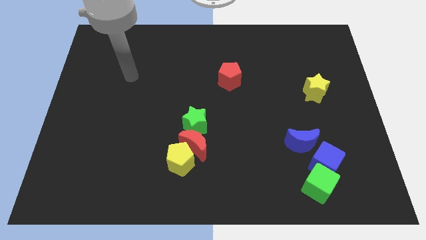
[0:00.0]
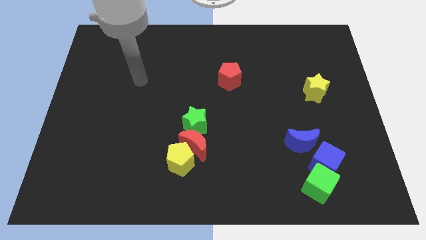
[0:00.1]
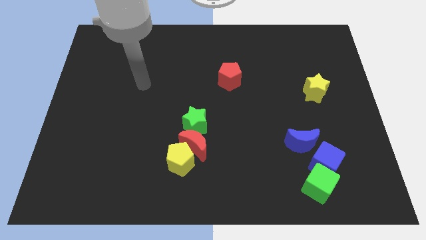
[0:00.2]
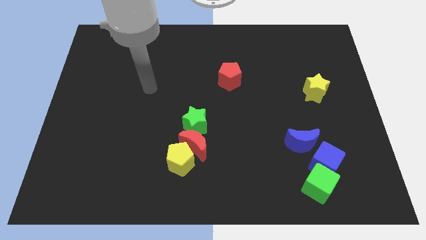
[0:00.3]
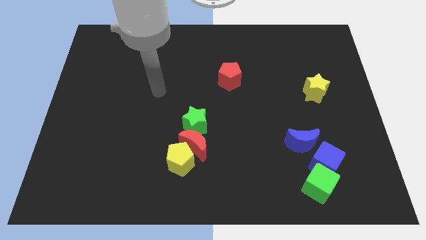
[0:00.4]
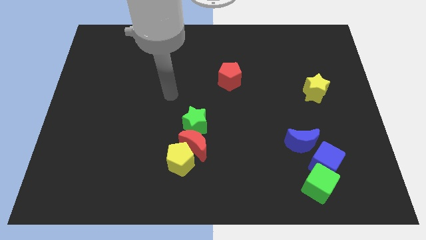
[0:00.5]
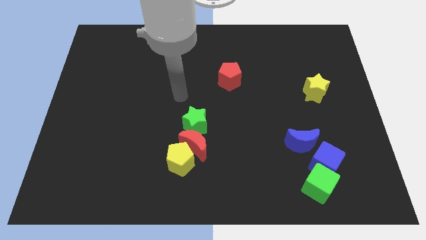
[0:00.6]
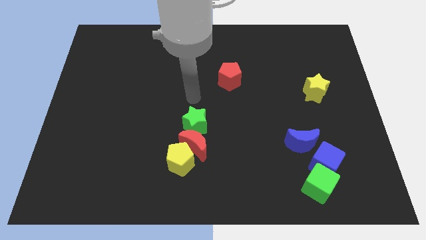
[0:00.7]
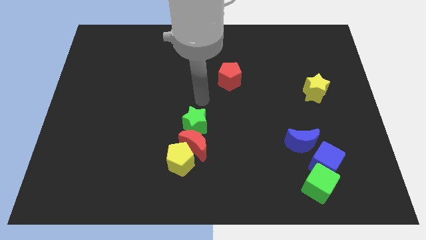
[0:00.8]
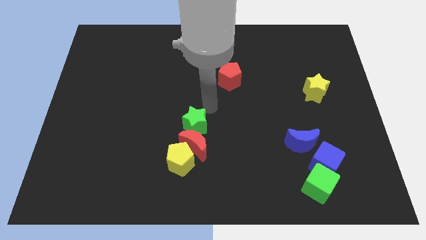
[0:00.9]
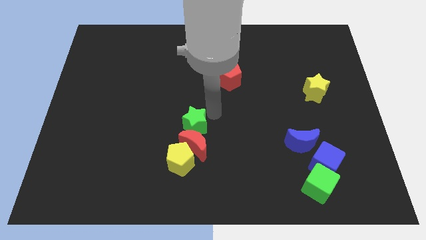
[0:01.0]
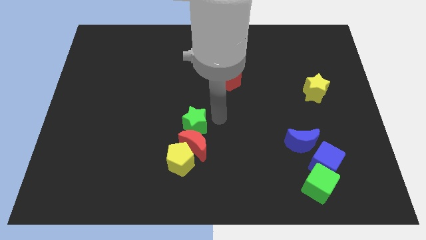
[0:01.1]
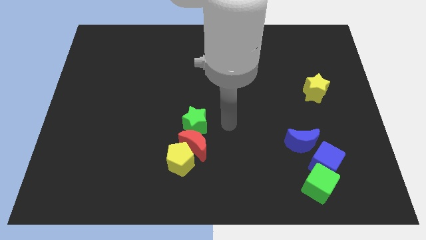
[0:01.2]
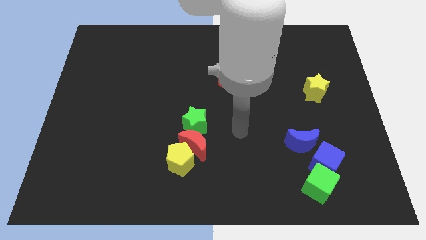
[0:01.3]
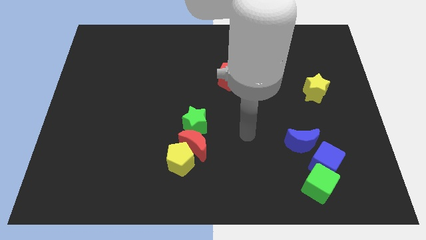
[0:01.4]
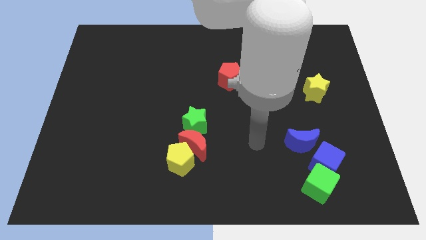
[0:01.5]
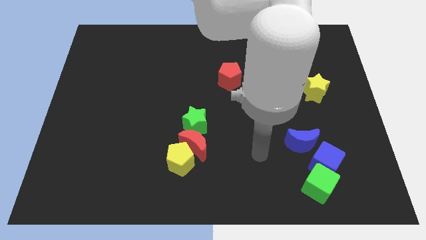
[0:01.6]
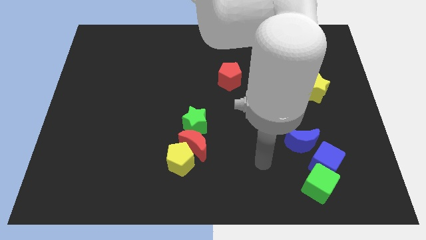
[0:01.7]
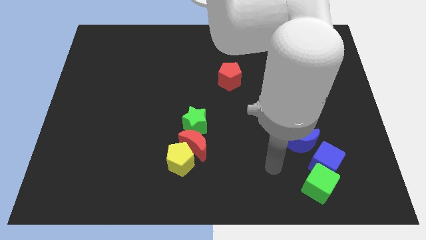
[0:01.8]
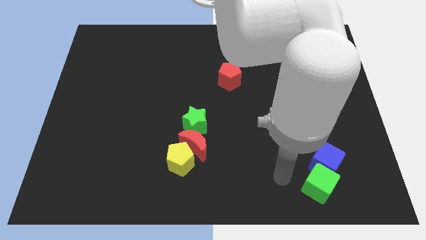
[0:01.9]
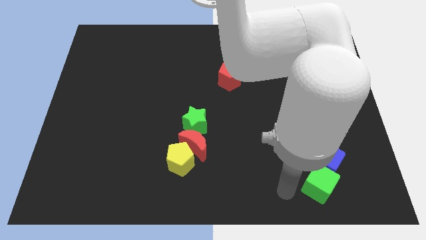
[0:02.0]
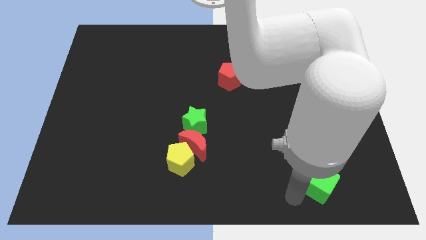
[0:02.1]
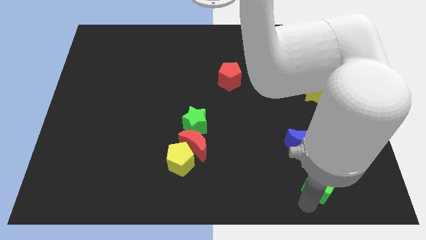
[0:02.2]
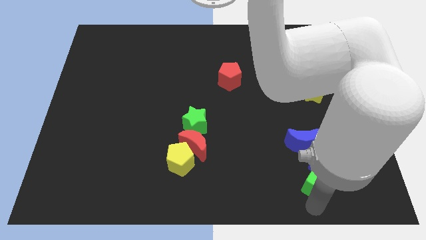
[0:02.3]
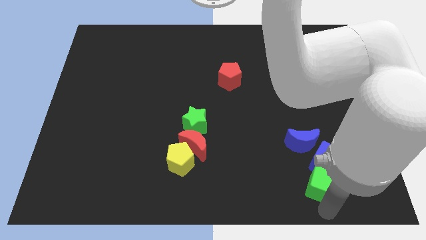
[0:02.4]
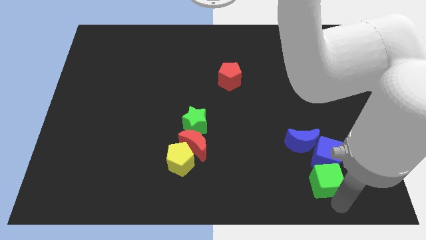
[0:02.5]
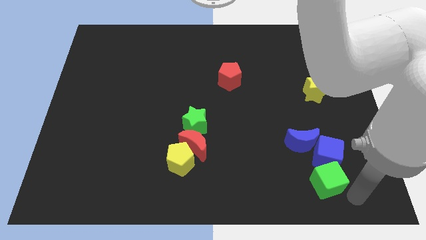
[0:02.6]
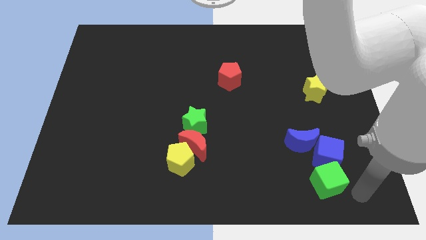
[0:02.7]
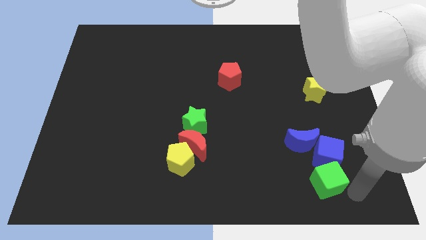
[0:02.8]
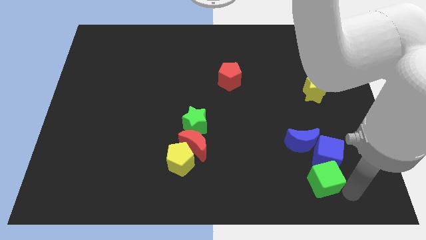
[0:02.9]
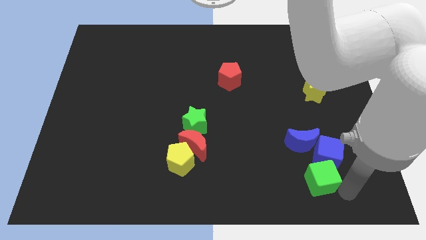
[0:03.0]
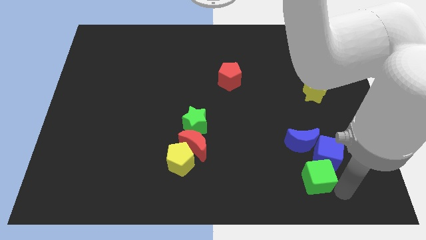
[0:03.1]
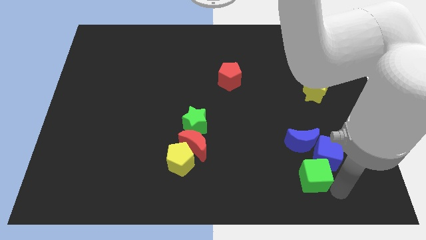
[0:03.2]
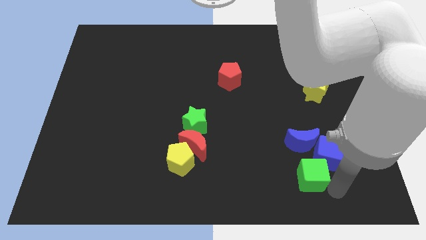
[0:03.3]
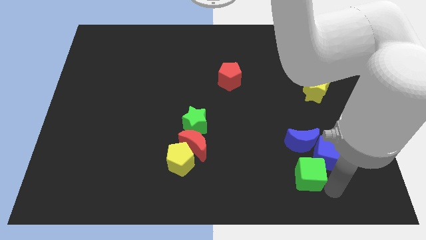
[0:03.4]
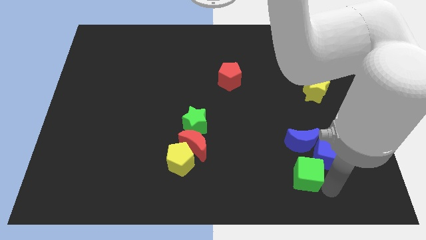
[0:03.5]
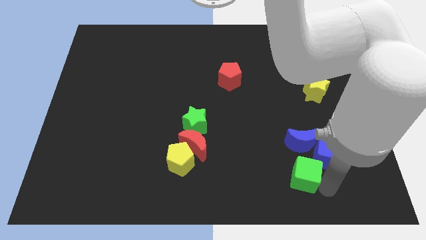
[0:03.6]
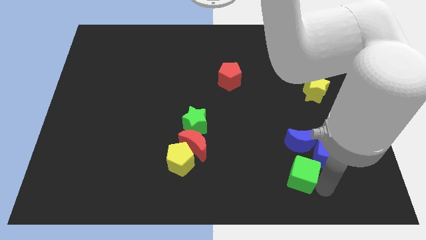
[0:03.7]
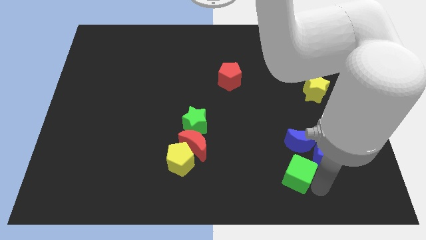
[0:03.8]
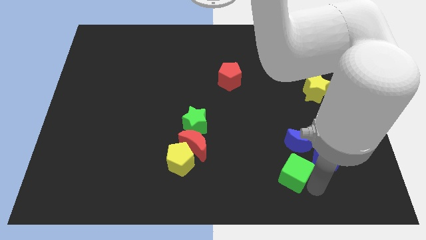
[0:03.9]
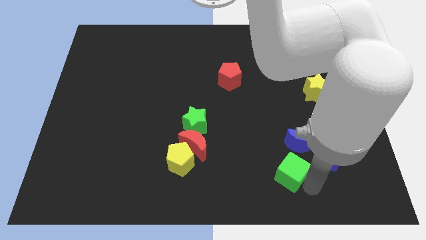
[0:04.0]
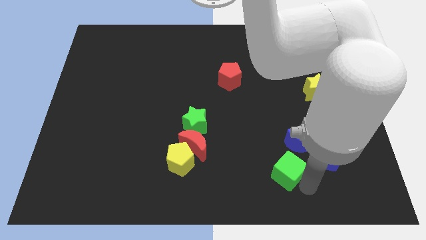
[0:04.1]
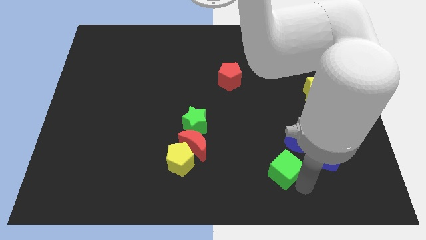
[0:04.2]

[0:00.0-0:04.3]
slightly slide the green cube upwards and then left

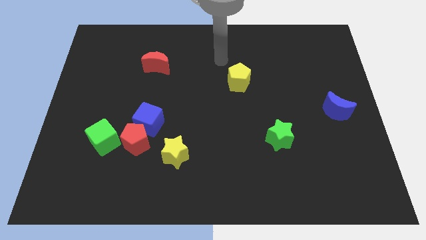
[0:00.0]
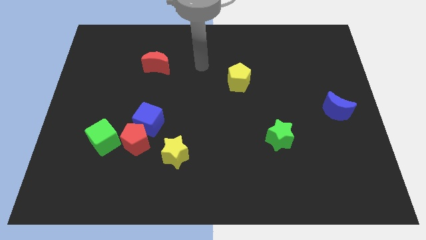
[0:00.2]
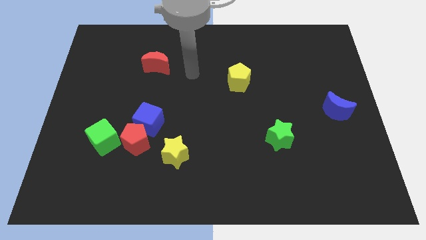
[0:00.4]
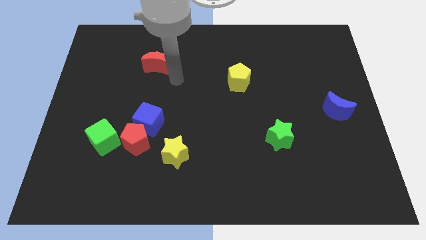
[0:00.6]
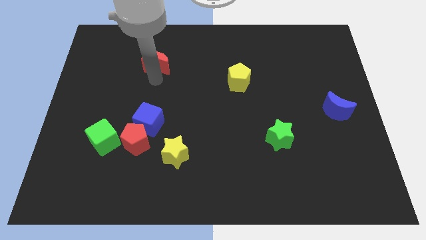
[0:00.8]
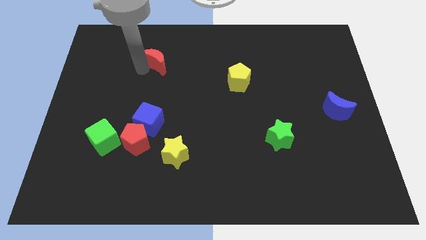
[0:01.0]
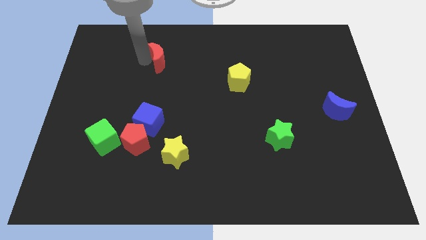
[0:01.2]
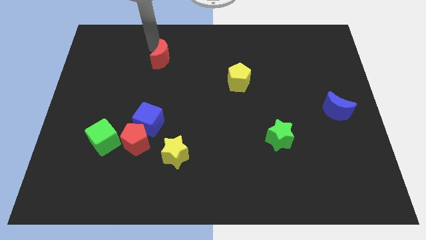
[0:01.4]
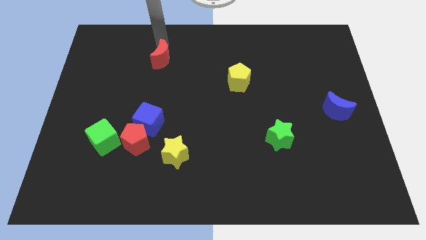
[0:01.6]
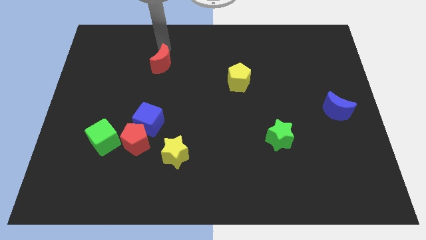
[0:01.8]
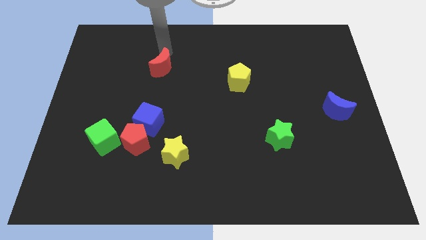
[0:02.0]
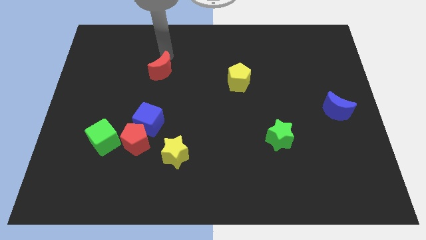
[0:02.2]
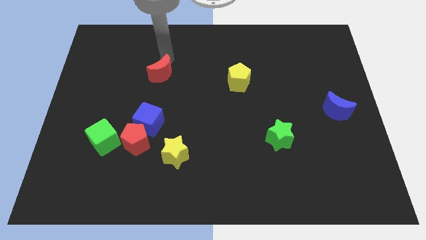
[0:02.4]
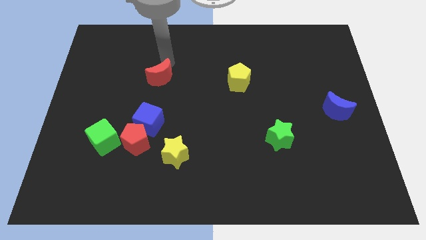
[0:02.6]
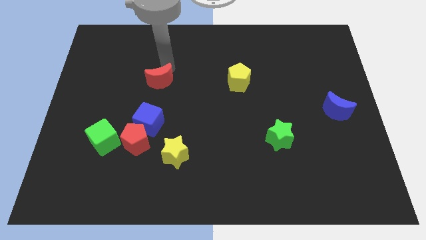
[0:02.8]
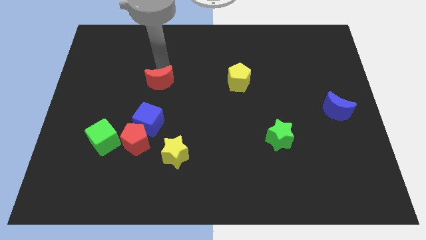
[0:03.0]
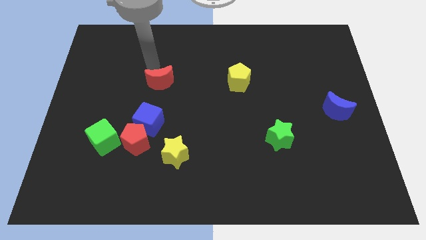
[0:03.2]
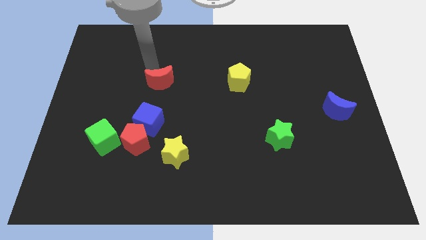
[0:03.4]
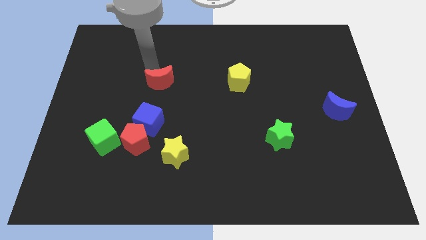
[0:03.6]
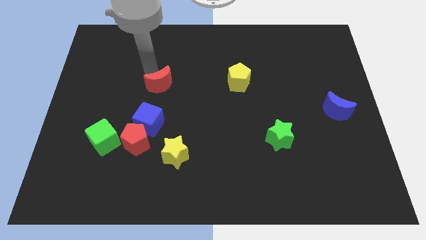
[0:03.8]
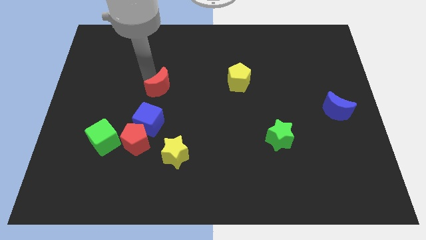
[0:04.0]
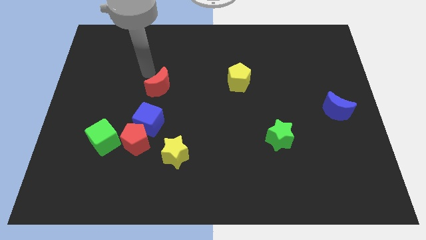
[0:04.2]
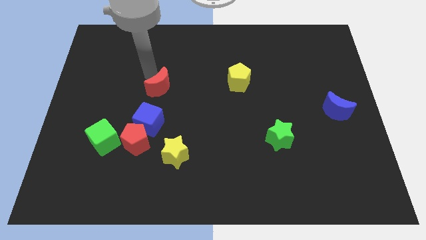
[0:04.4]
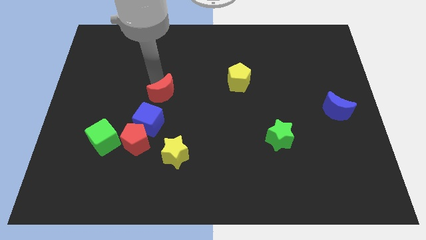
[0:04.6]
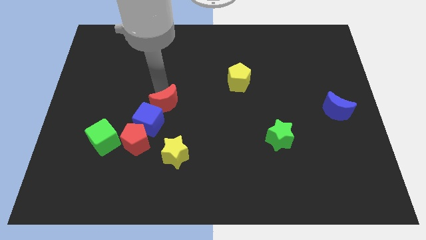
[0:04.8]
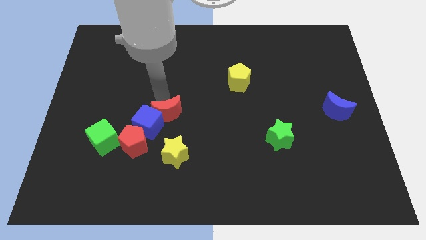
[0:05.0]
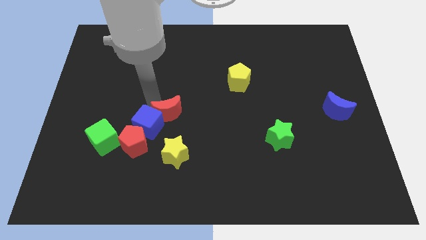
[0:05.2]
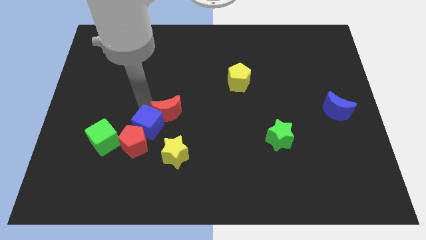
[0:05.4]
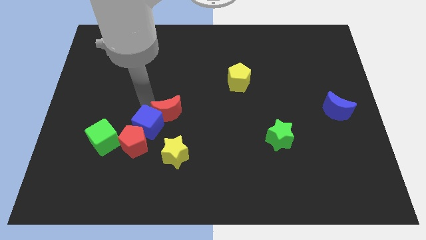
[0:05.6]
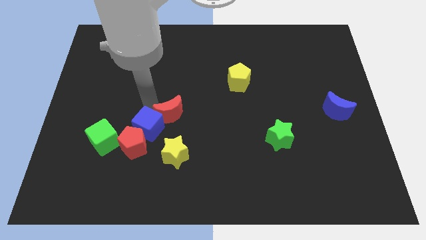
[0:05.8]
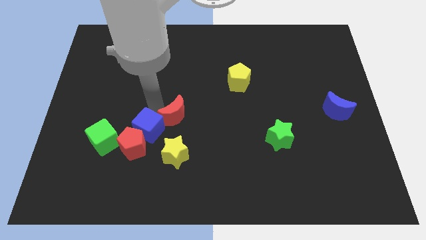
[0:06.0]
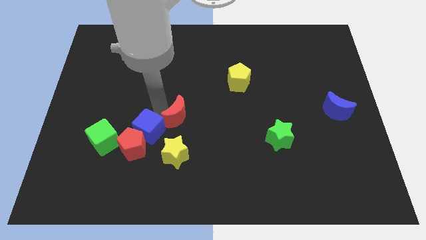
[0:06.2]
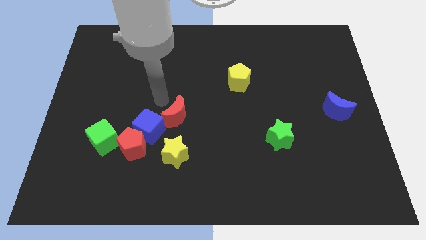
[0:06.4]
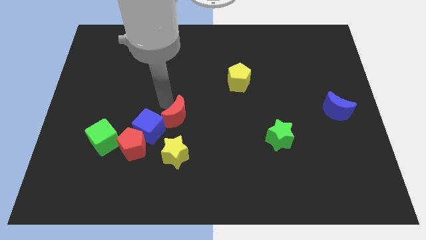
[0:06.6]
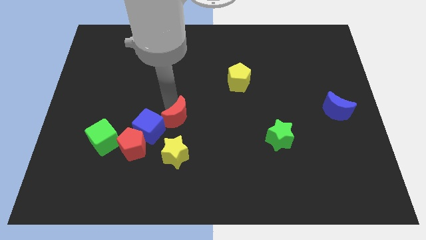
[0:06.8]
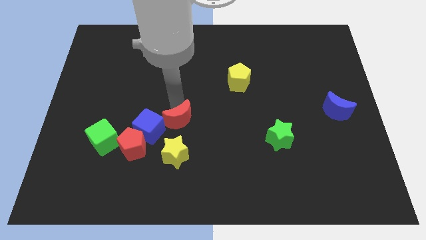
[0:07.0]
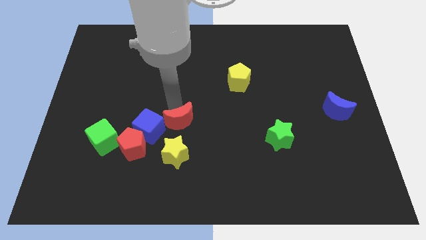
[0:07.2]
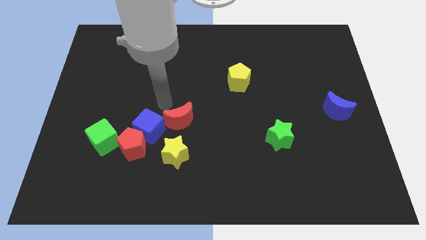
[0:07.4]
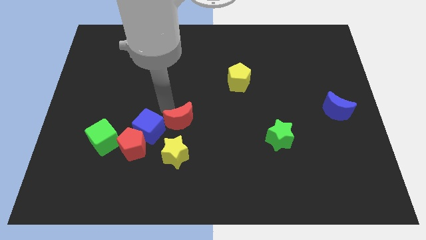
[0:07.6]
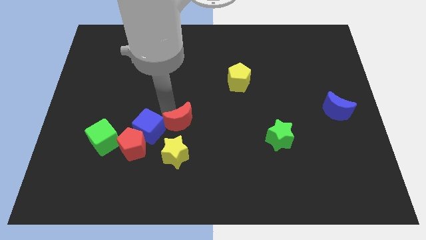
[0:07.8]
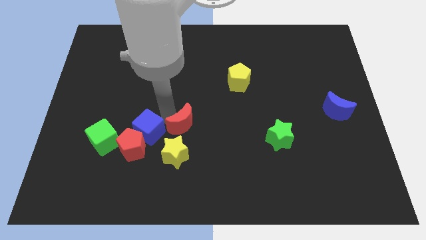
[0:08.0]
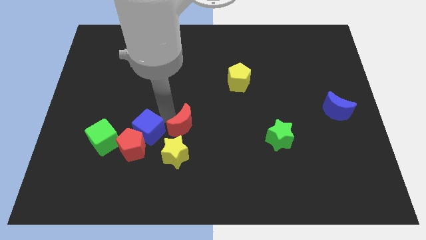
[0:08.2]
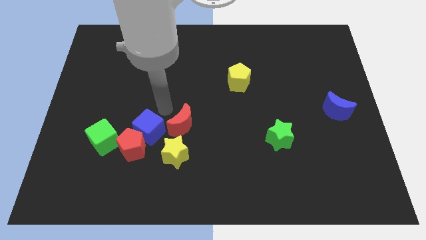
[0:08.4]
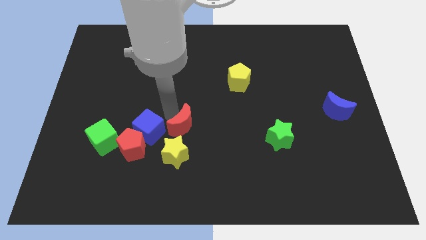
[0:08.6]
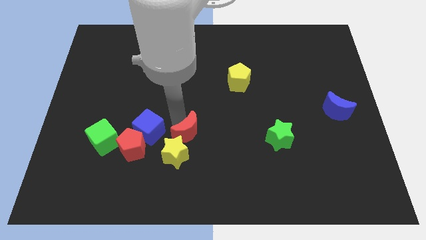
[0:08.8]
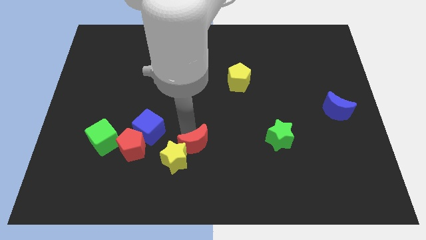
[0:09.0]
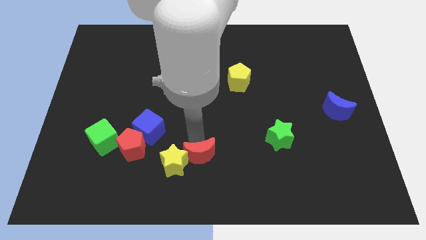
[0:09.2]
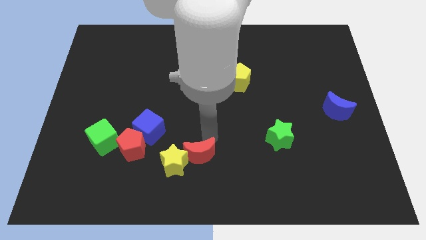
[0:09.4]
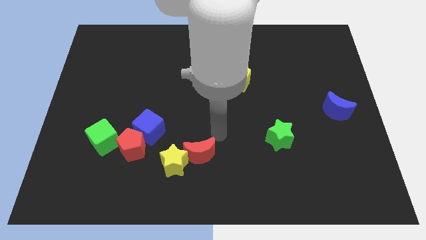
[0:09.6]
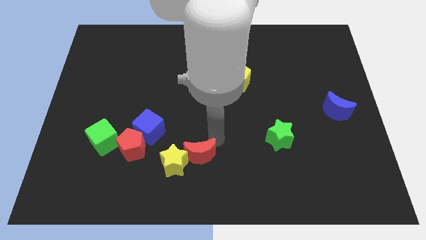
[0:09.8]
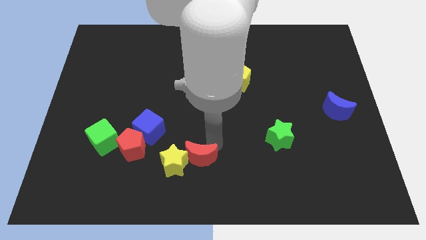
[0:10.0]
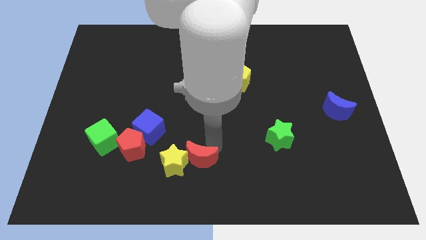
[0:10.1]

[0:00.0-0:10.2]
push the red moon down
